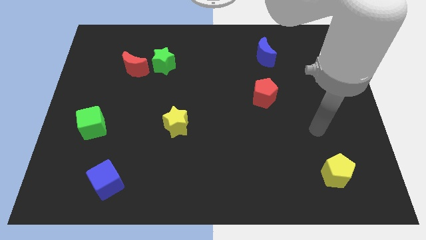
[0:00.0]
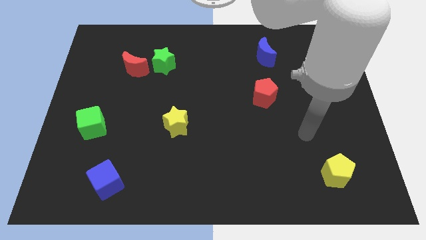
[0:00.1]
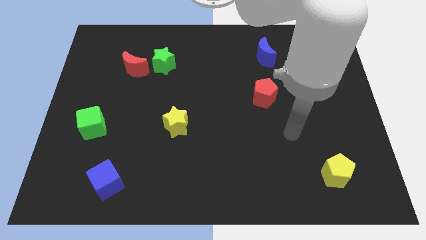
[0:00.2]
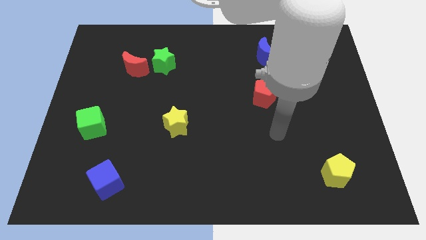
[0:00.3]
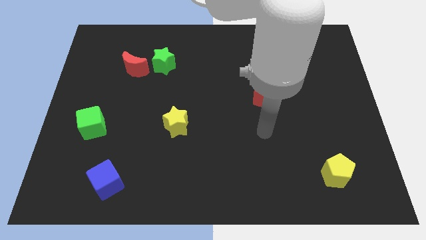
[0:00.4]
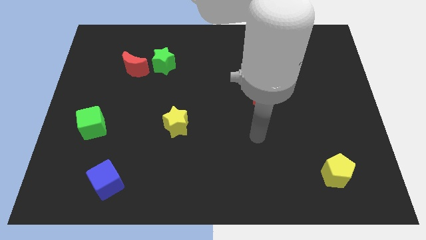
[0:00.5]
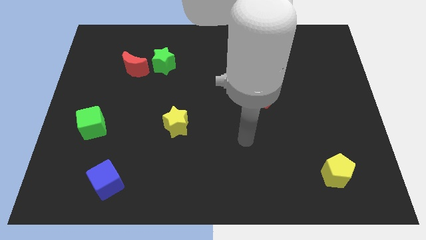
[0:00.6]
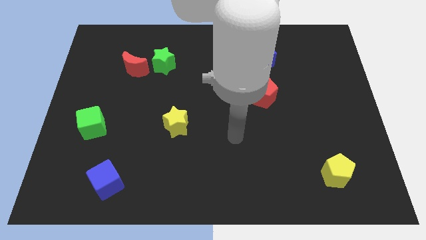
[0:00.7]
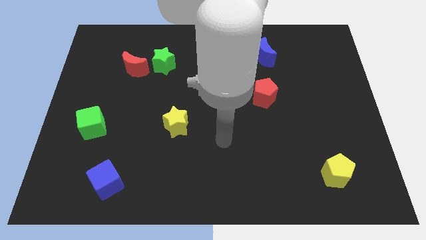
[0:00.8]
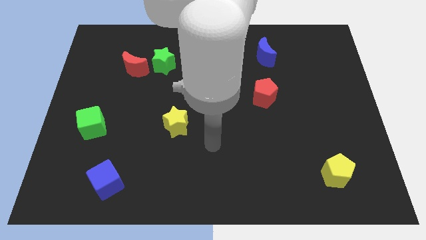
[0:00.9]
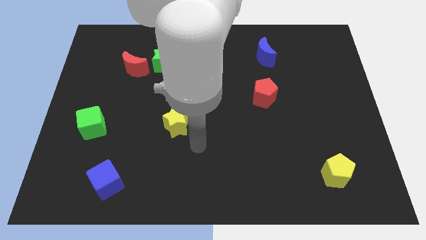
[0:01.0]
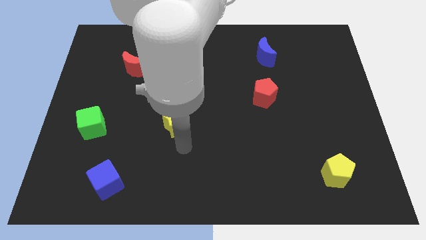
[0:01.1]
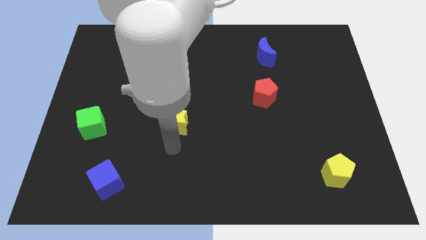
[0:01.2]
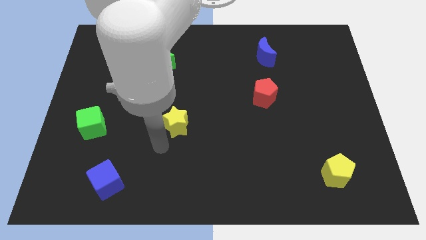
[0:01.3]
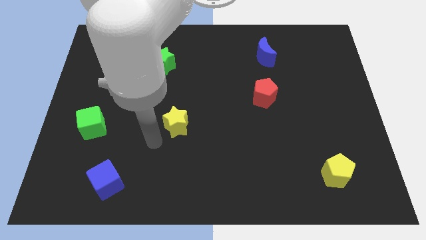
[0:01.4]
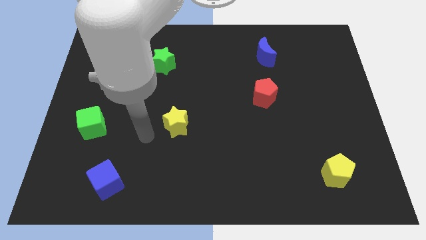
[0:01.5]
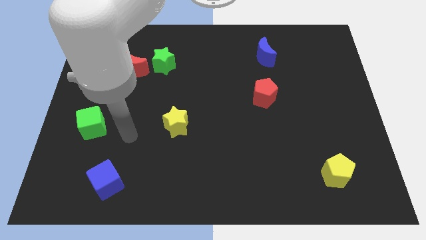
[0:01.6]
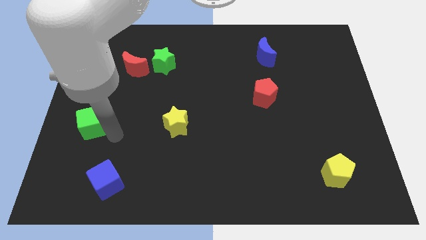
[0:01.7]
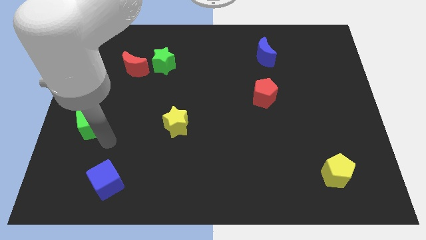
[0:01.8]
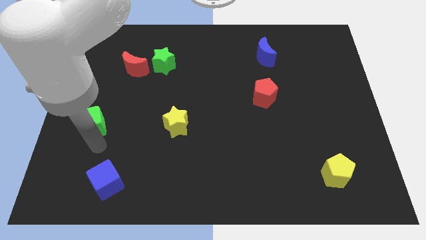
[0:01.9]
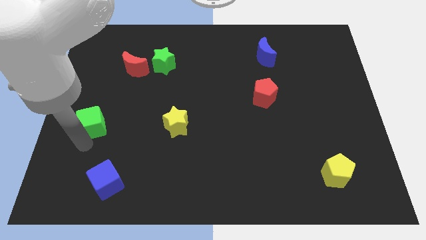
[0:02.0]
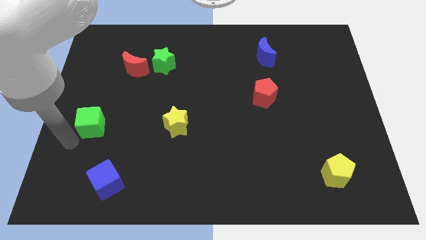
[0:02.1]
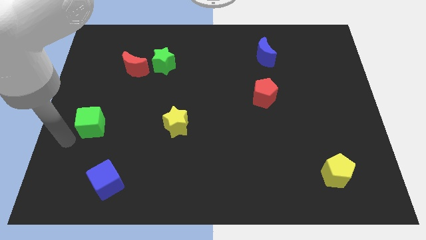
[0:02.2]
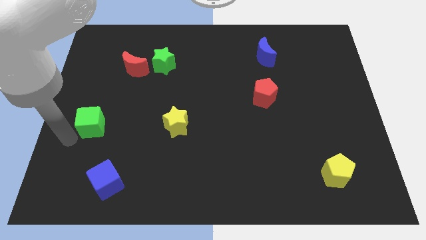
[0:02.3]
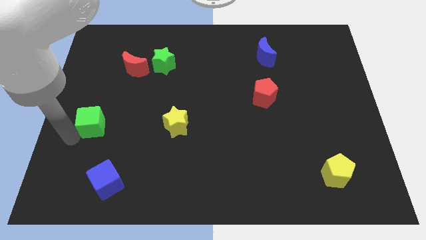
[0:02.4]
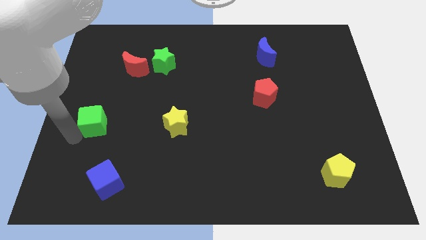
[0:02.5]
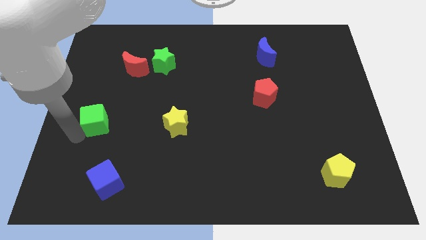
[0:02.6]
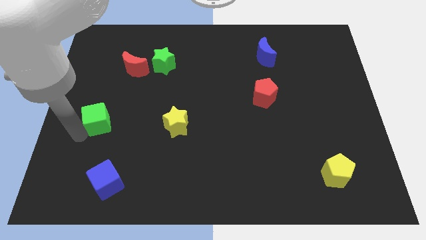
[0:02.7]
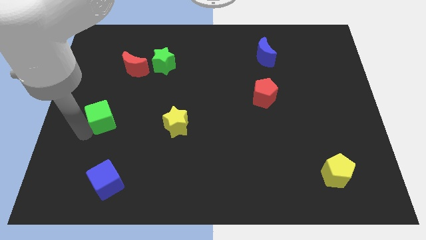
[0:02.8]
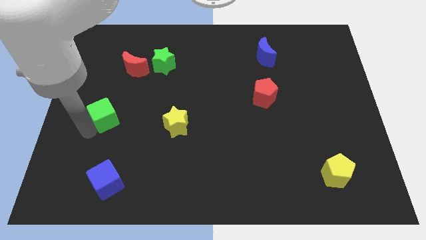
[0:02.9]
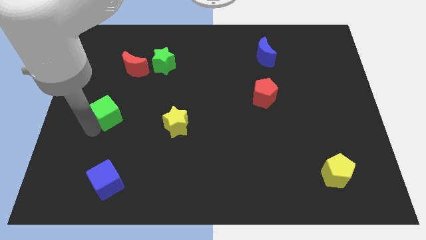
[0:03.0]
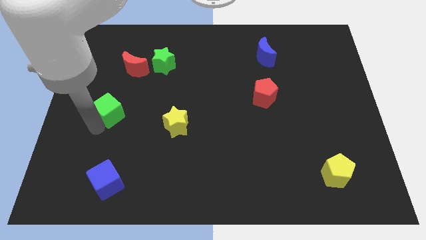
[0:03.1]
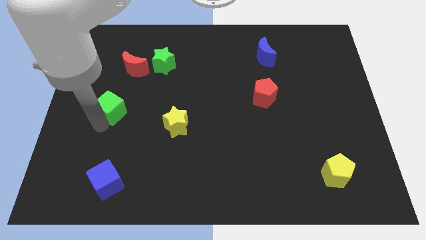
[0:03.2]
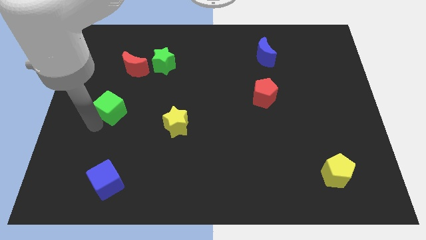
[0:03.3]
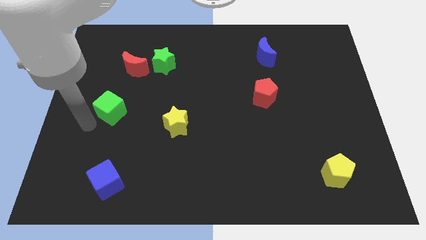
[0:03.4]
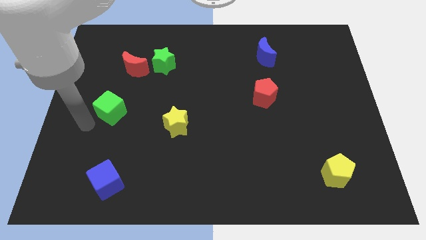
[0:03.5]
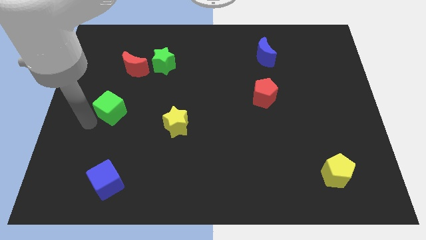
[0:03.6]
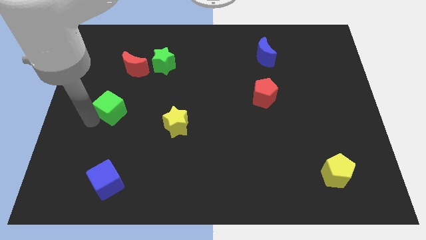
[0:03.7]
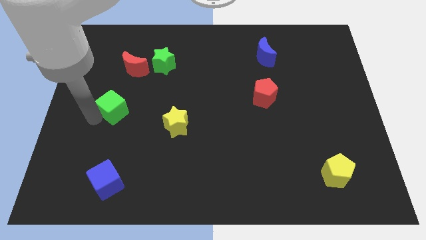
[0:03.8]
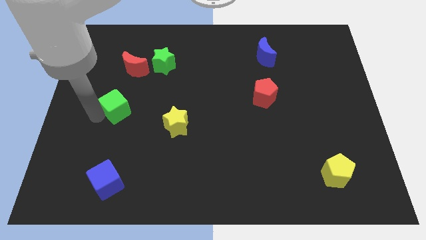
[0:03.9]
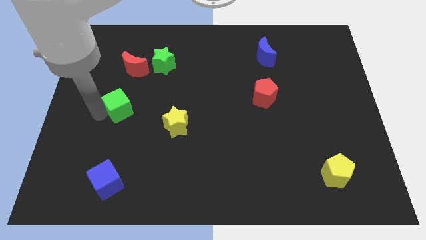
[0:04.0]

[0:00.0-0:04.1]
push the green cube a little up and then right

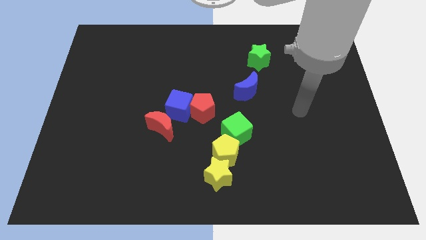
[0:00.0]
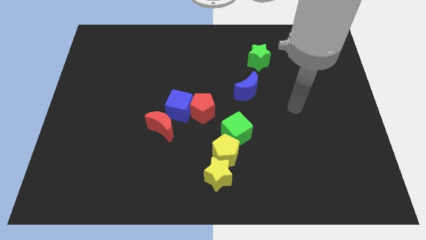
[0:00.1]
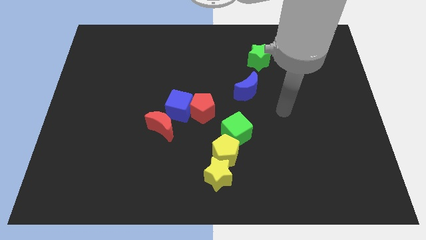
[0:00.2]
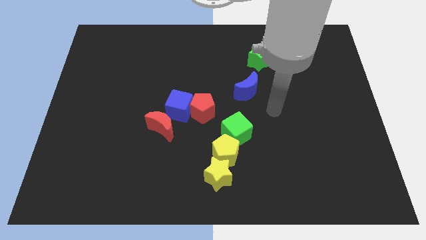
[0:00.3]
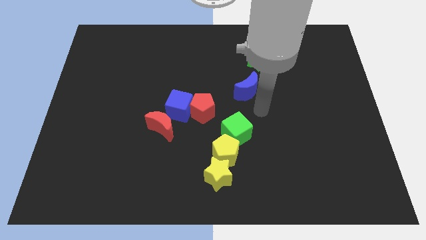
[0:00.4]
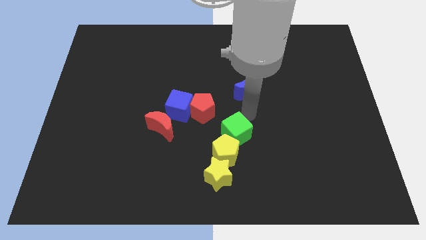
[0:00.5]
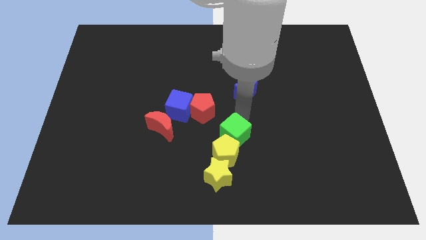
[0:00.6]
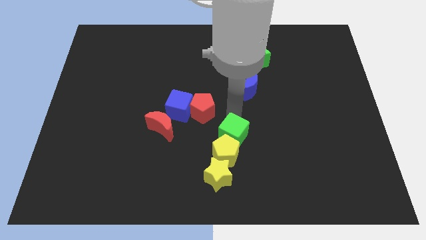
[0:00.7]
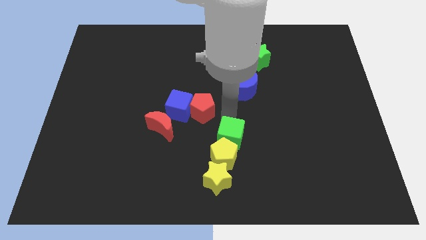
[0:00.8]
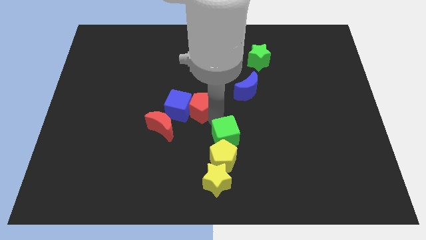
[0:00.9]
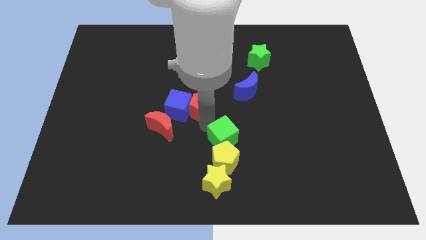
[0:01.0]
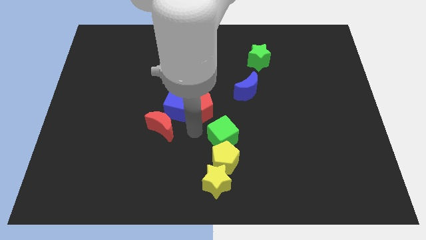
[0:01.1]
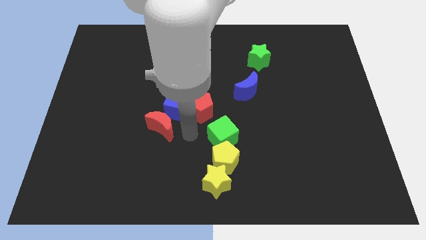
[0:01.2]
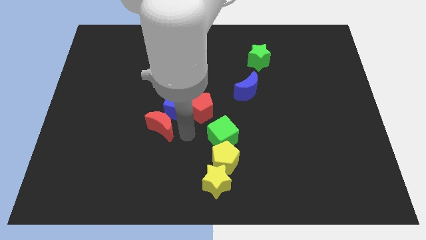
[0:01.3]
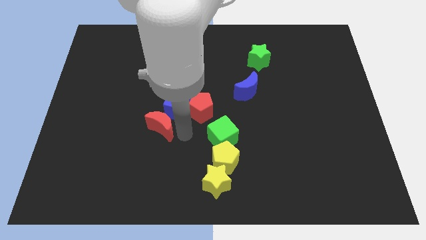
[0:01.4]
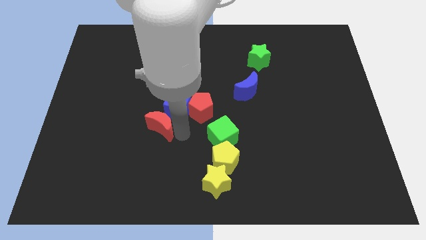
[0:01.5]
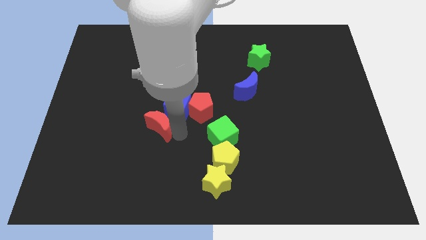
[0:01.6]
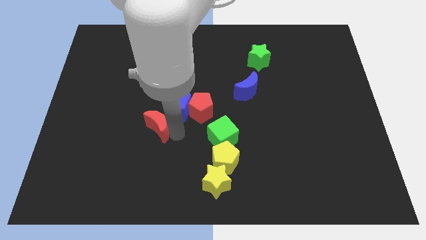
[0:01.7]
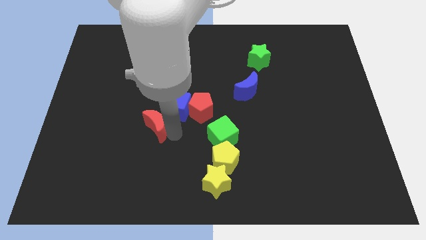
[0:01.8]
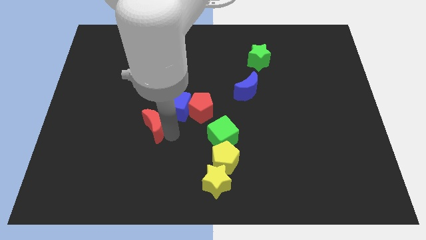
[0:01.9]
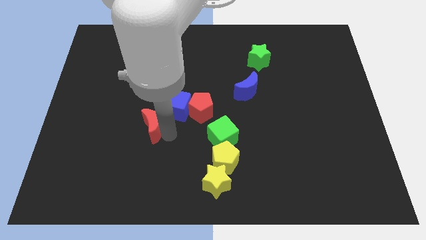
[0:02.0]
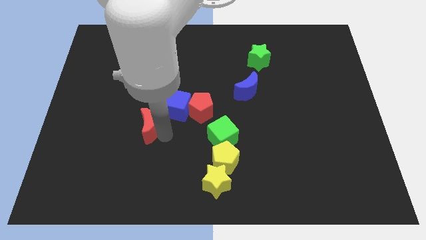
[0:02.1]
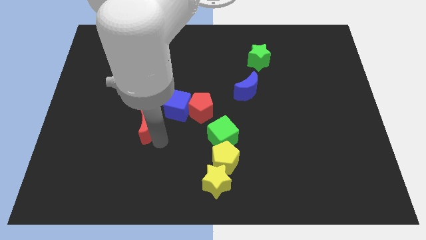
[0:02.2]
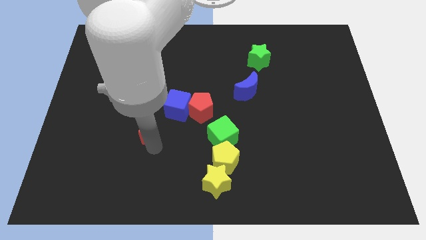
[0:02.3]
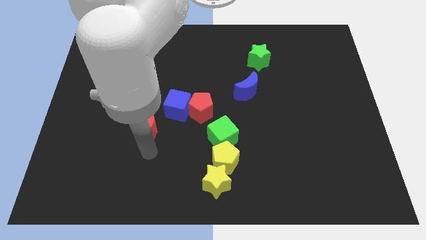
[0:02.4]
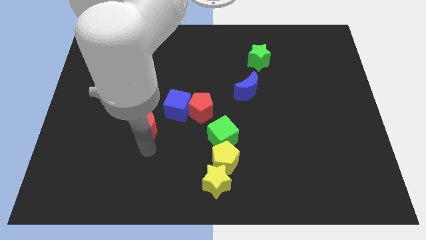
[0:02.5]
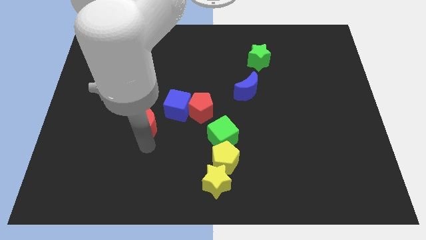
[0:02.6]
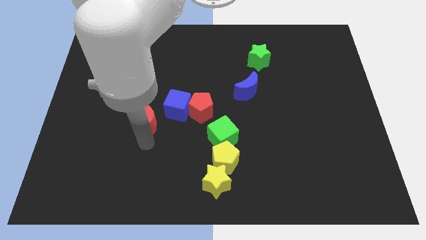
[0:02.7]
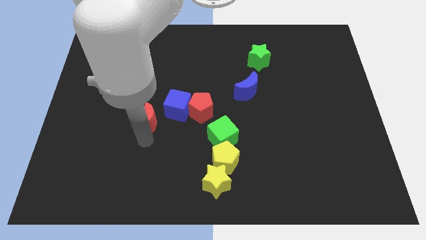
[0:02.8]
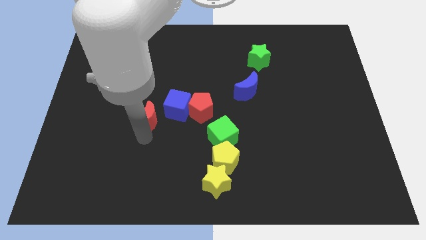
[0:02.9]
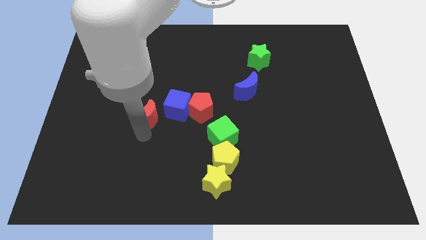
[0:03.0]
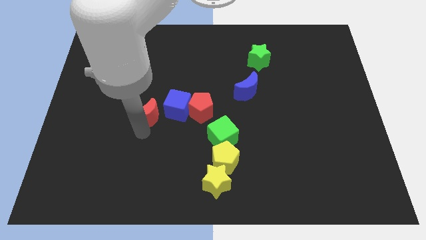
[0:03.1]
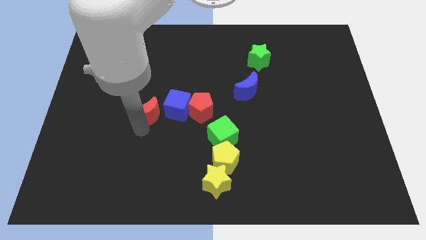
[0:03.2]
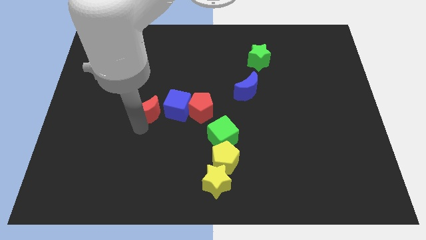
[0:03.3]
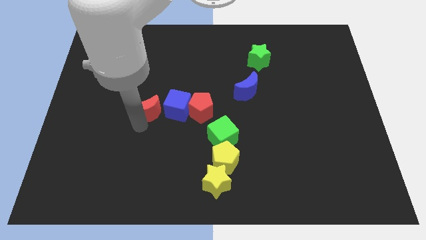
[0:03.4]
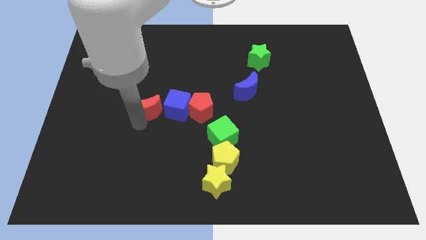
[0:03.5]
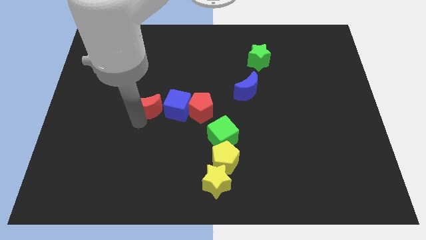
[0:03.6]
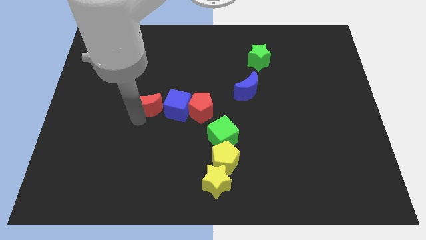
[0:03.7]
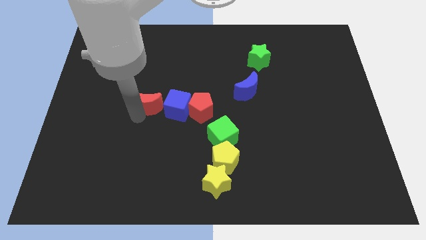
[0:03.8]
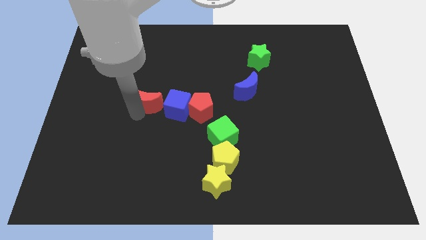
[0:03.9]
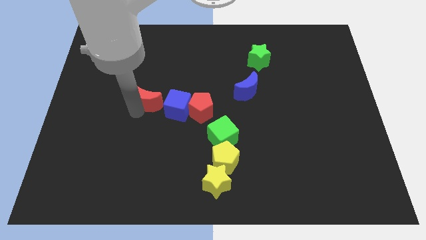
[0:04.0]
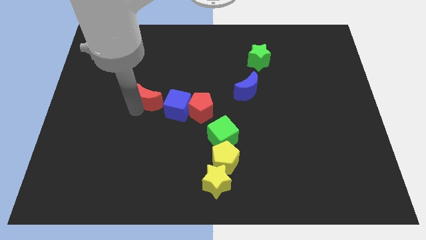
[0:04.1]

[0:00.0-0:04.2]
slide the red moon somewhat up
